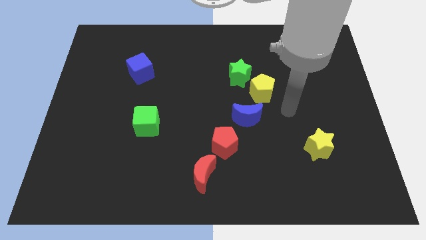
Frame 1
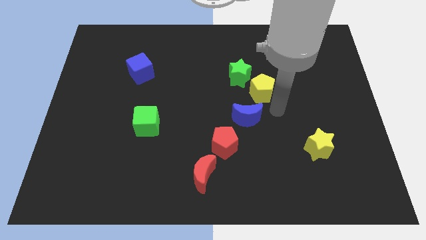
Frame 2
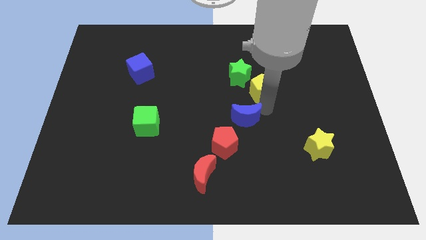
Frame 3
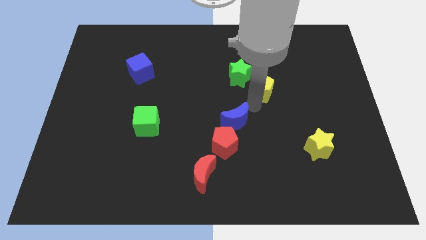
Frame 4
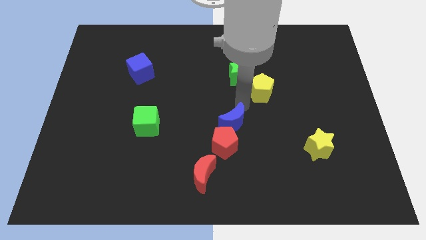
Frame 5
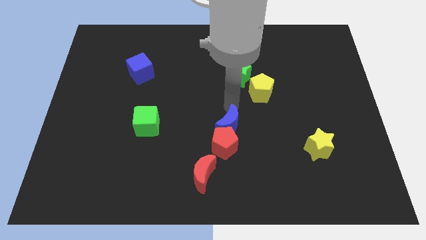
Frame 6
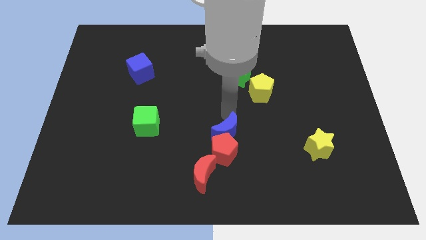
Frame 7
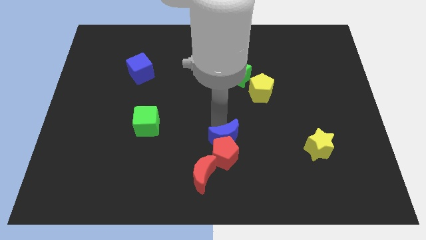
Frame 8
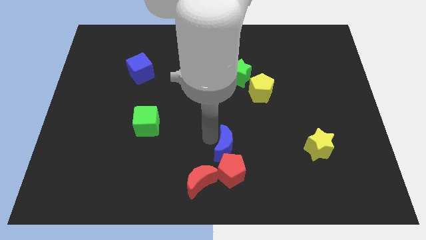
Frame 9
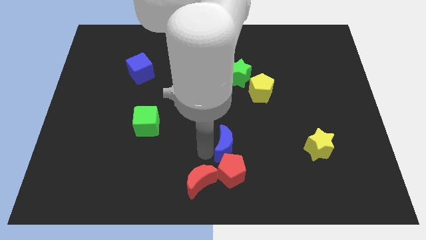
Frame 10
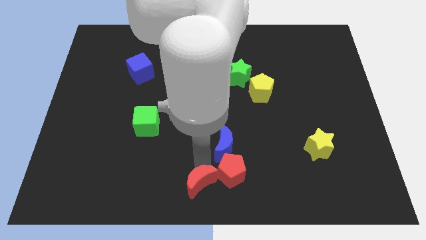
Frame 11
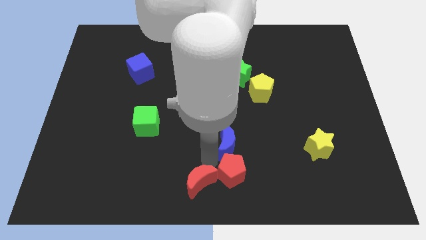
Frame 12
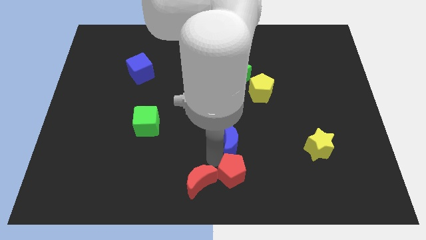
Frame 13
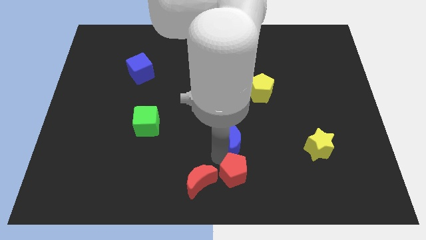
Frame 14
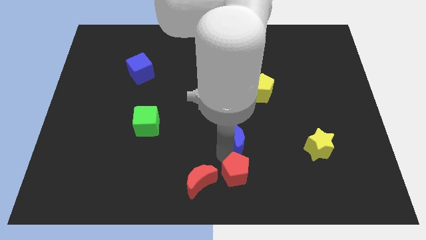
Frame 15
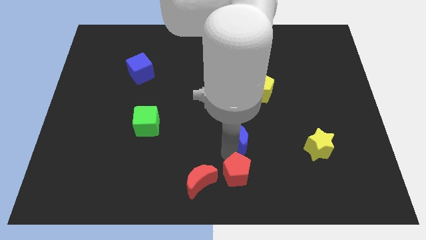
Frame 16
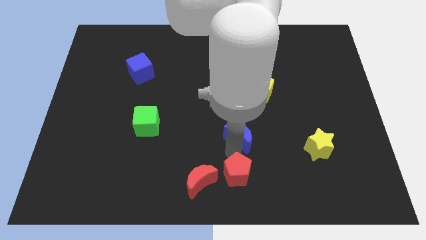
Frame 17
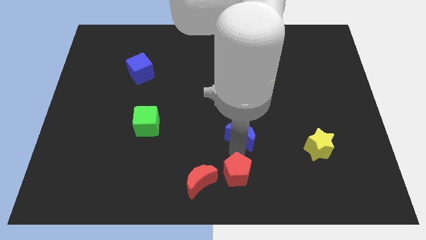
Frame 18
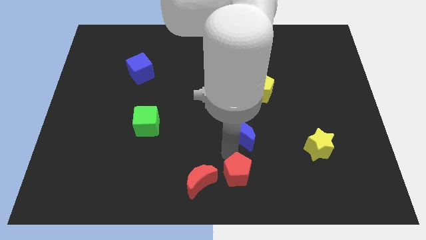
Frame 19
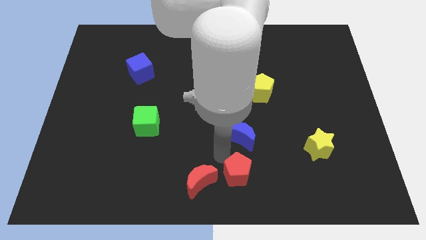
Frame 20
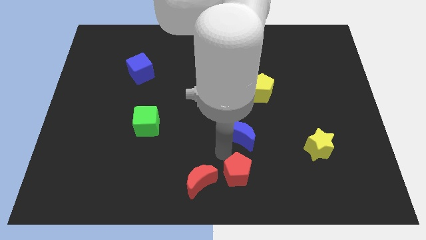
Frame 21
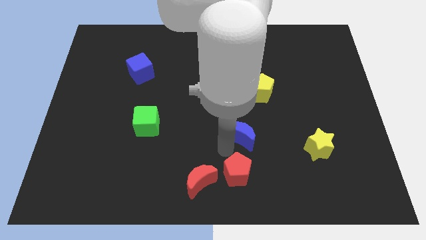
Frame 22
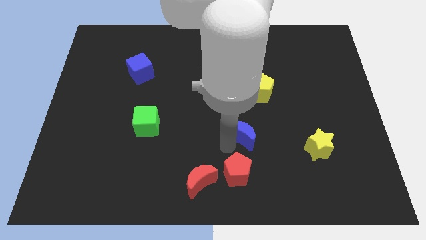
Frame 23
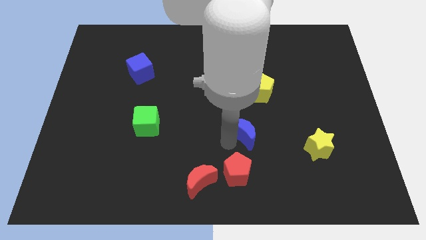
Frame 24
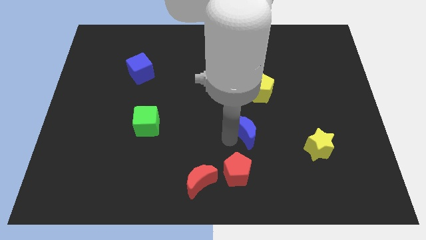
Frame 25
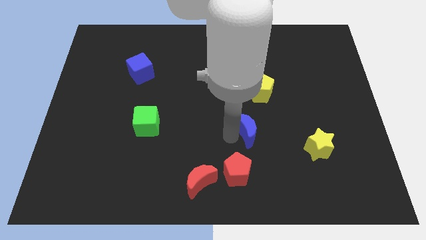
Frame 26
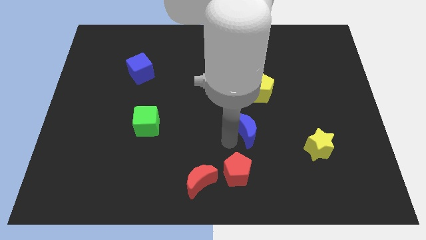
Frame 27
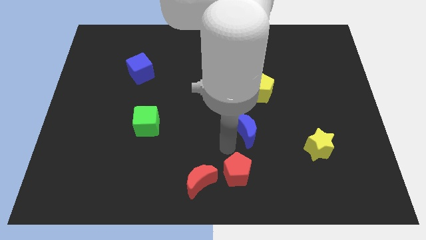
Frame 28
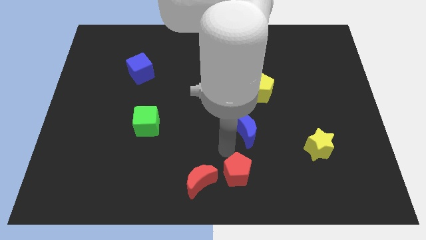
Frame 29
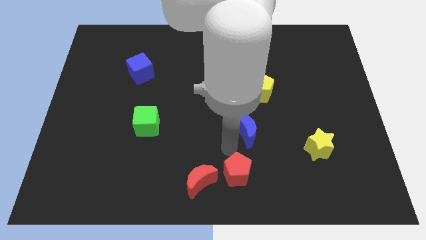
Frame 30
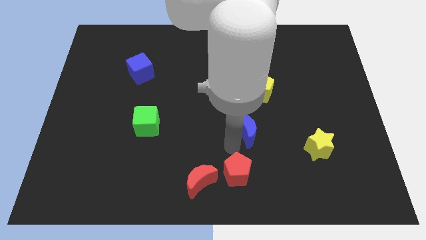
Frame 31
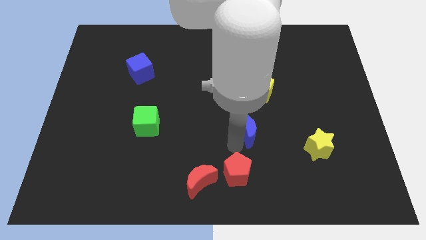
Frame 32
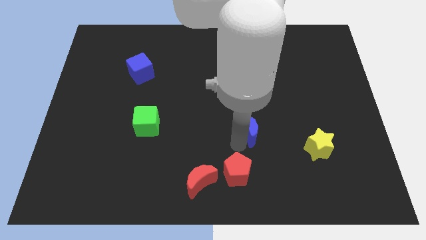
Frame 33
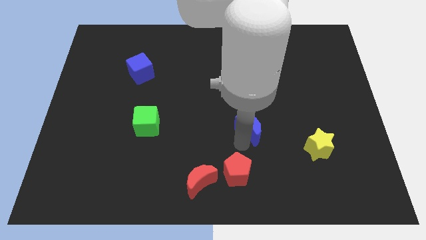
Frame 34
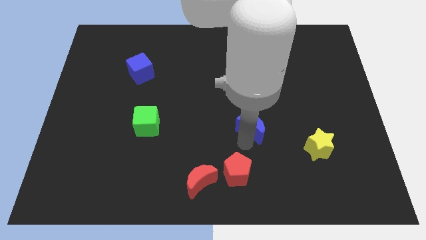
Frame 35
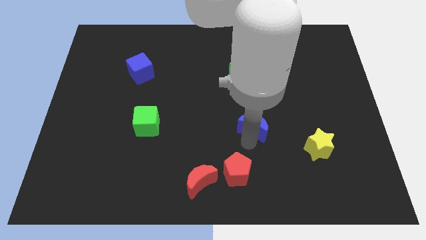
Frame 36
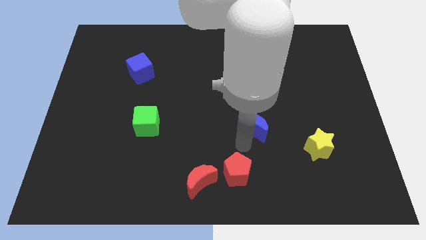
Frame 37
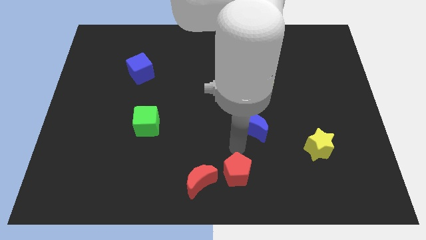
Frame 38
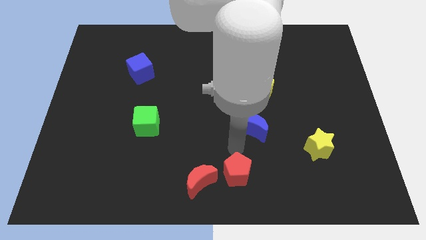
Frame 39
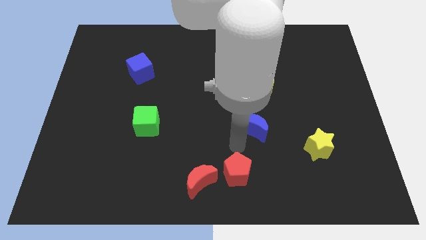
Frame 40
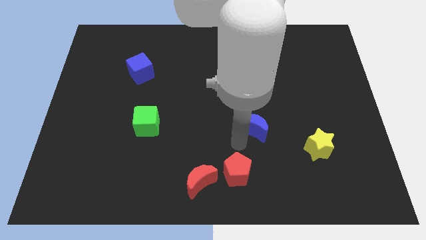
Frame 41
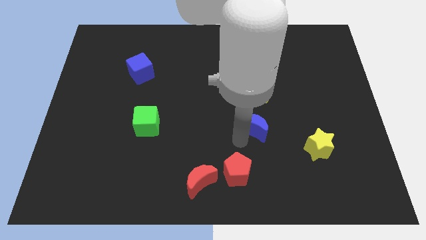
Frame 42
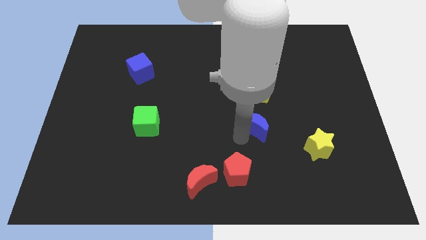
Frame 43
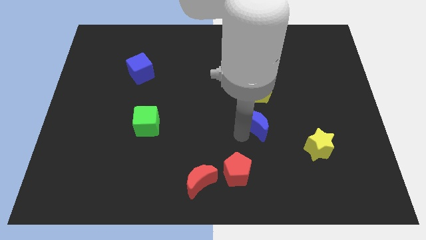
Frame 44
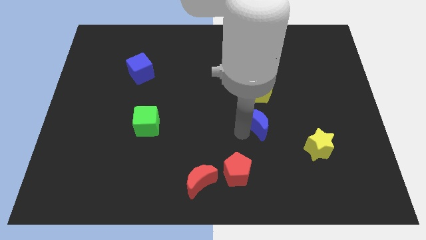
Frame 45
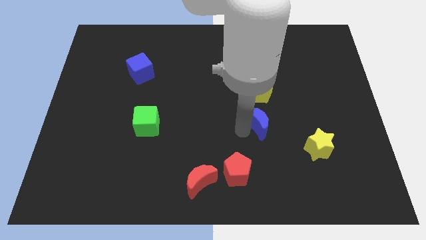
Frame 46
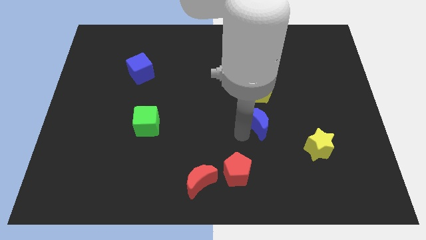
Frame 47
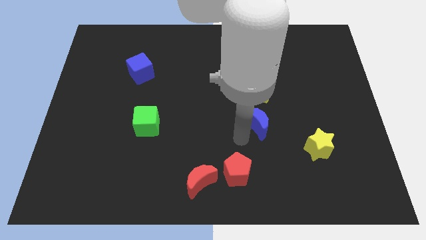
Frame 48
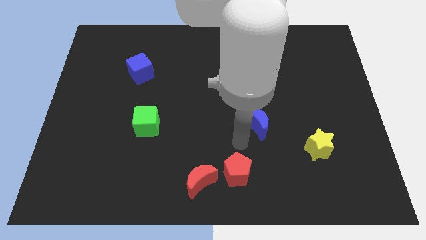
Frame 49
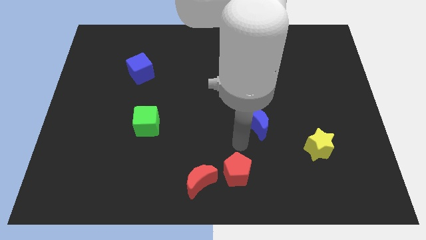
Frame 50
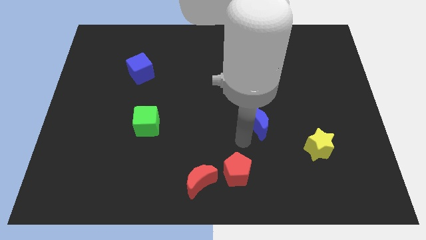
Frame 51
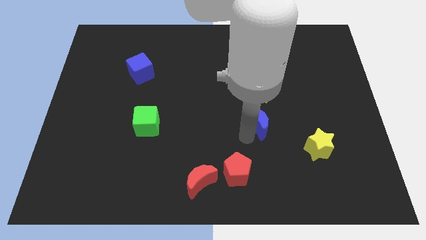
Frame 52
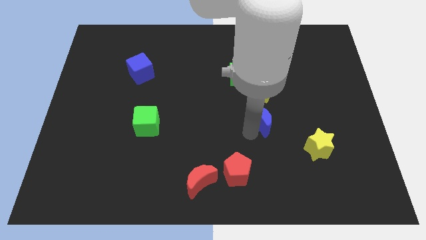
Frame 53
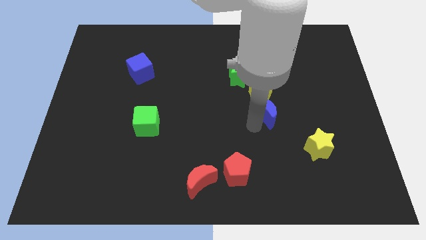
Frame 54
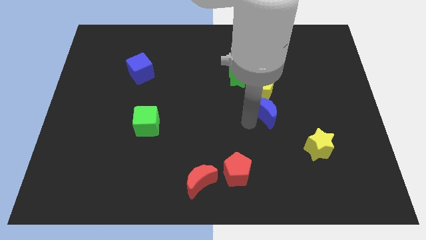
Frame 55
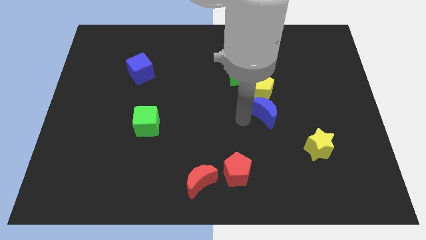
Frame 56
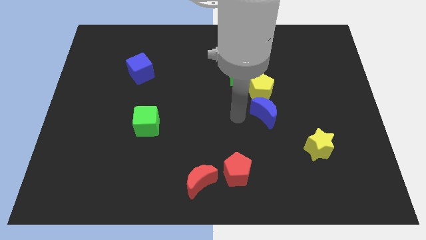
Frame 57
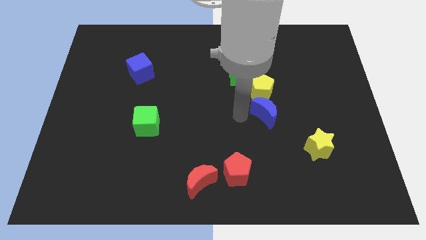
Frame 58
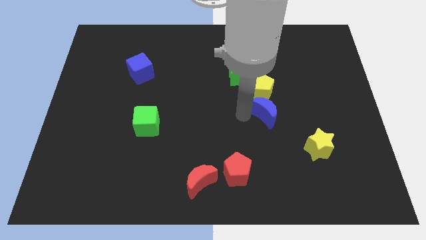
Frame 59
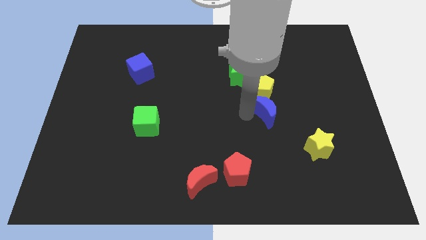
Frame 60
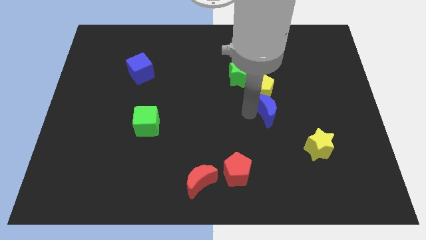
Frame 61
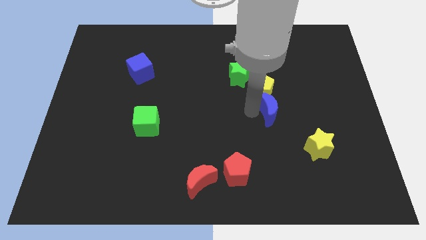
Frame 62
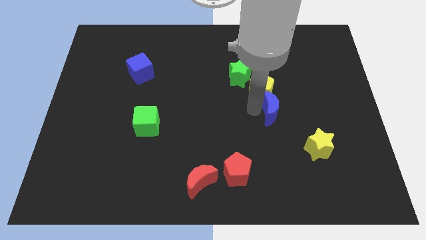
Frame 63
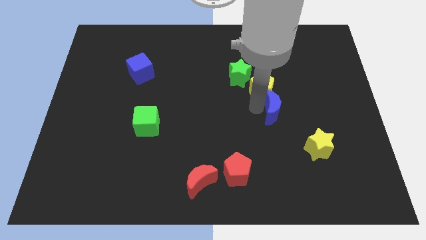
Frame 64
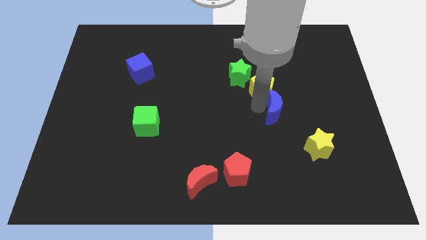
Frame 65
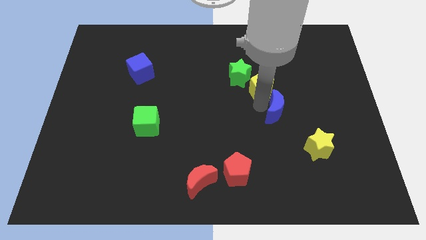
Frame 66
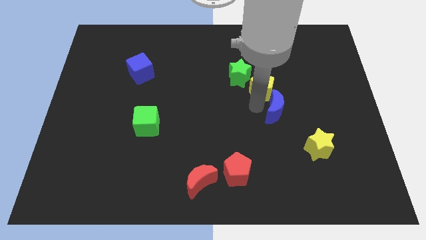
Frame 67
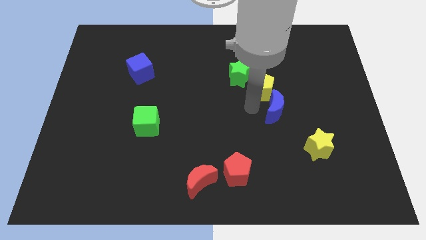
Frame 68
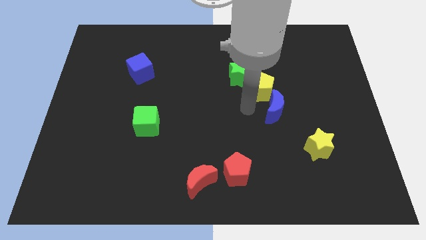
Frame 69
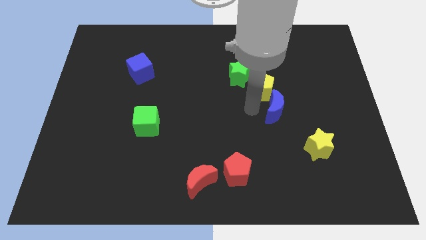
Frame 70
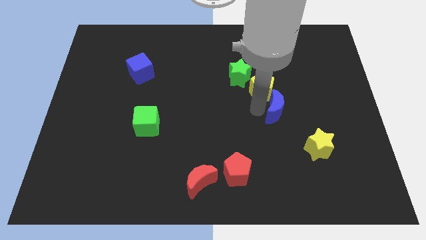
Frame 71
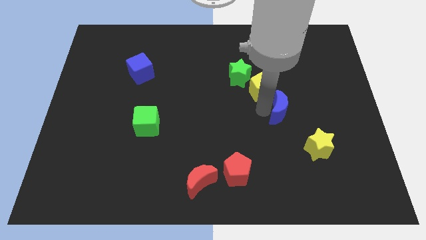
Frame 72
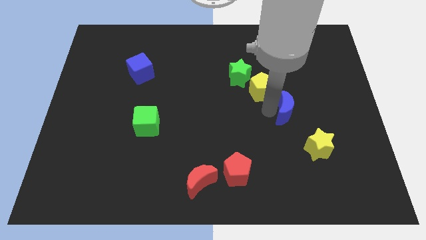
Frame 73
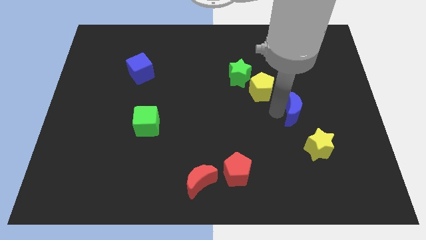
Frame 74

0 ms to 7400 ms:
slide the blue moon to the top side of the yellow star
